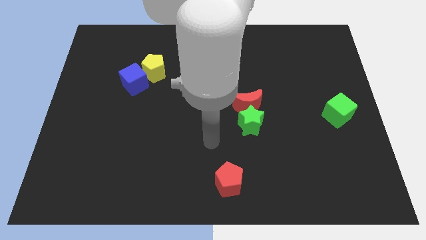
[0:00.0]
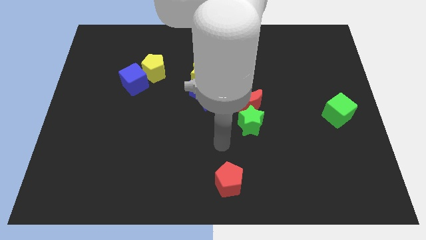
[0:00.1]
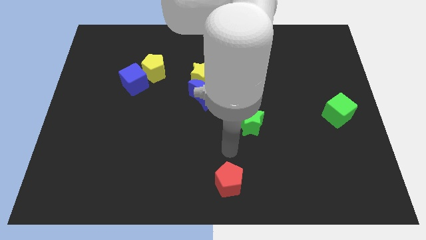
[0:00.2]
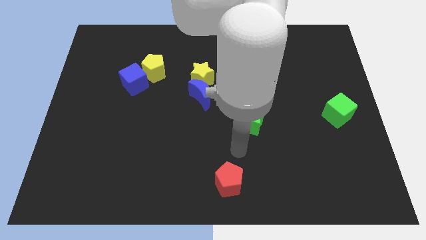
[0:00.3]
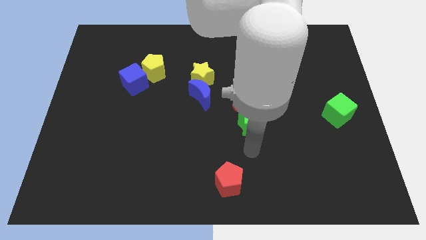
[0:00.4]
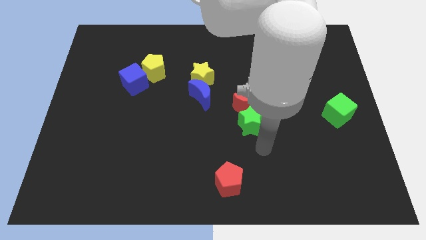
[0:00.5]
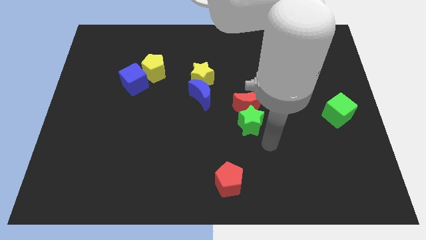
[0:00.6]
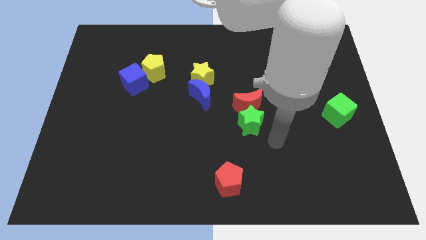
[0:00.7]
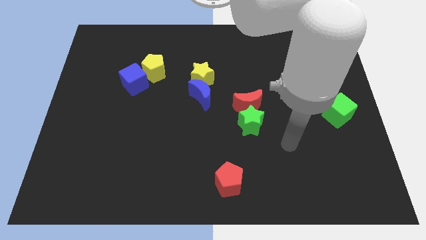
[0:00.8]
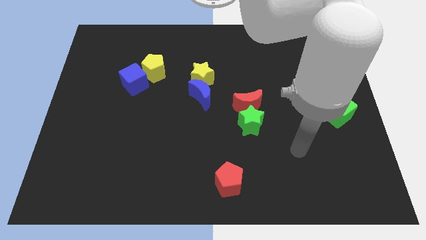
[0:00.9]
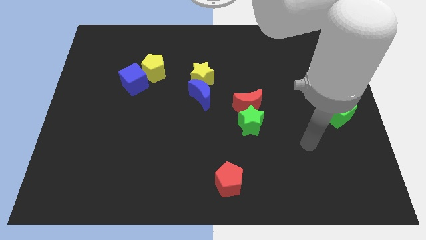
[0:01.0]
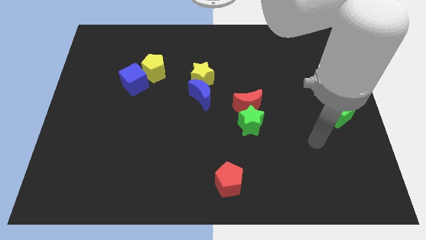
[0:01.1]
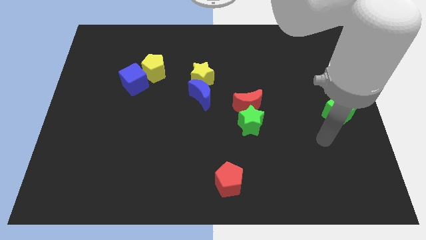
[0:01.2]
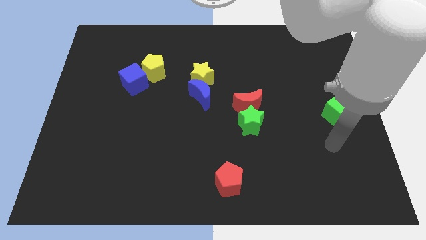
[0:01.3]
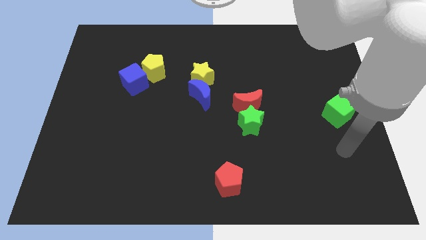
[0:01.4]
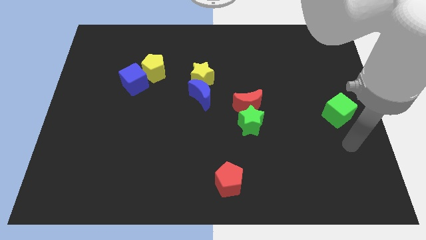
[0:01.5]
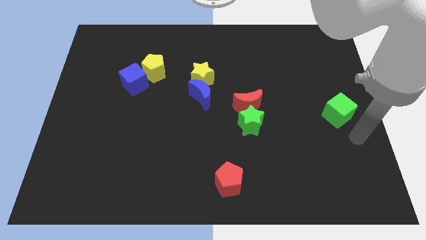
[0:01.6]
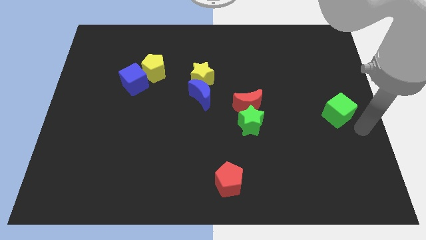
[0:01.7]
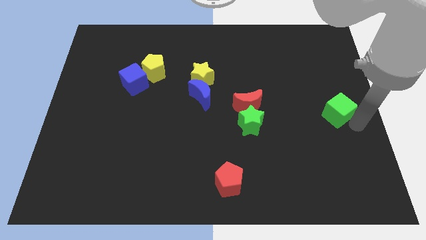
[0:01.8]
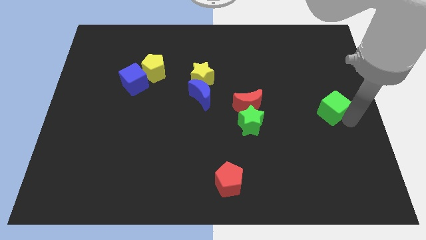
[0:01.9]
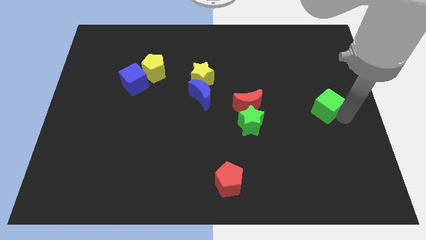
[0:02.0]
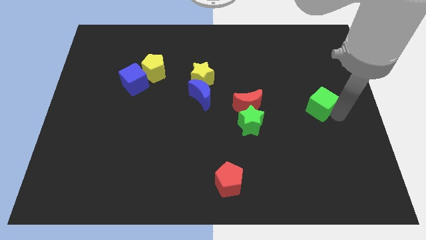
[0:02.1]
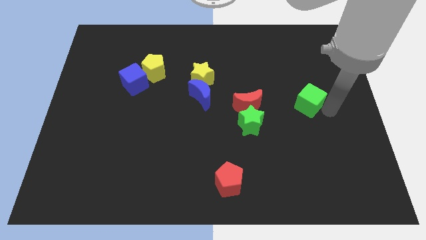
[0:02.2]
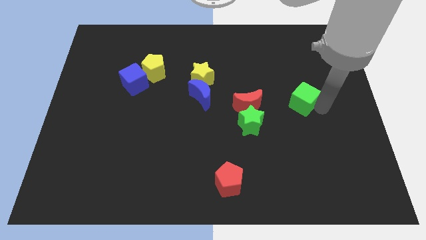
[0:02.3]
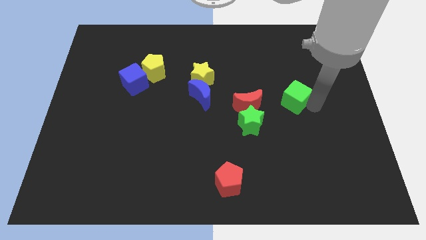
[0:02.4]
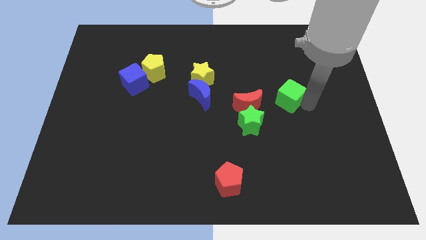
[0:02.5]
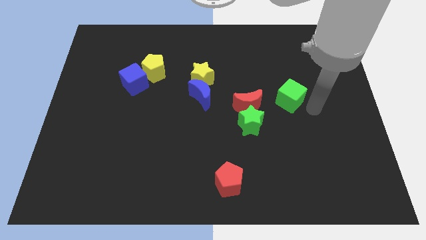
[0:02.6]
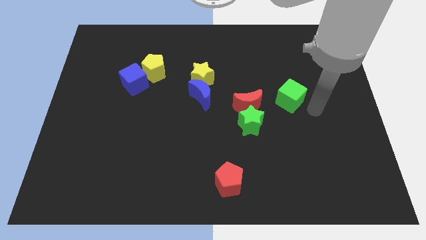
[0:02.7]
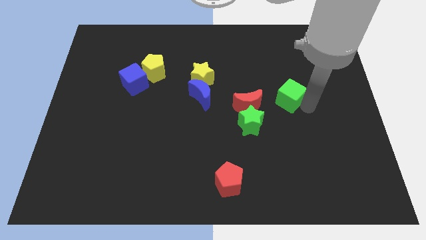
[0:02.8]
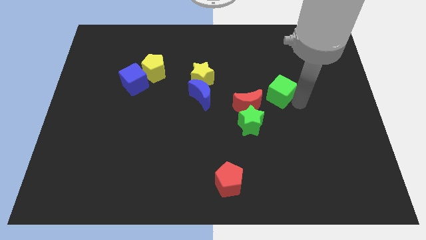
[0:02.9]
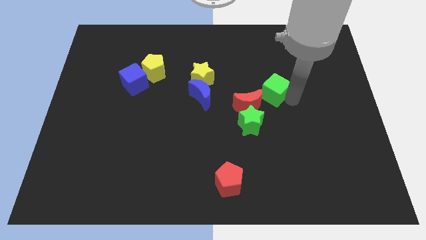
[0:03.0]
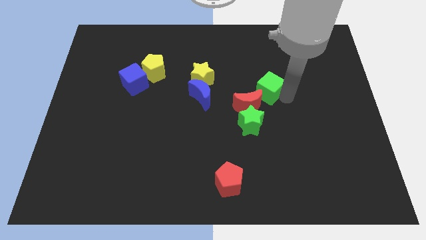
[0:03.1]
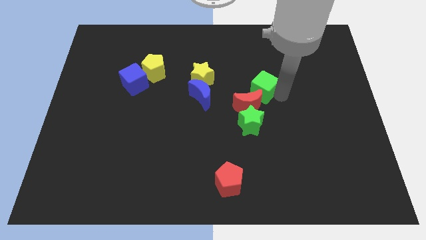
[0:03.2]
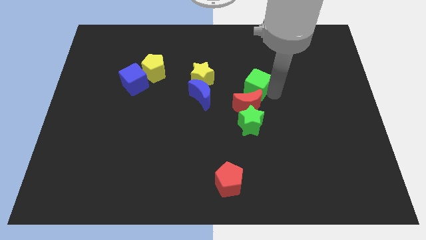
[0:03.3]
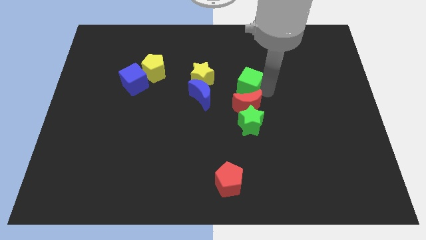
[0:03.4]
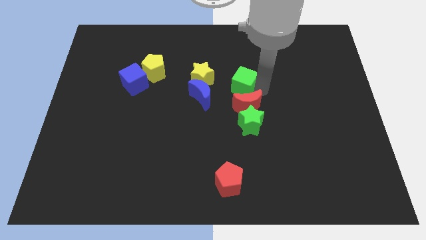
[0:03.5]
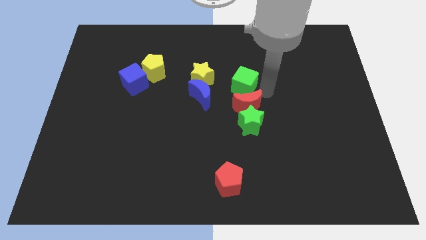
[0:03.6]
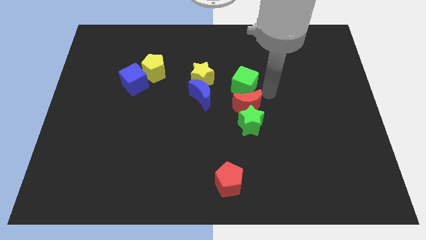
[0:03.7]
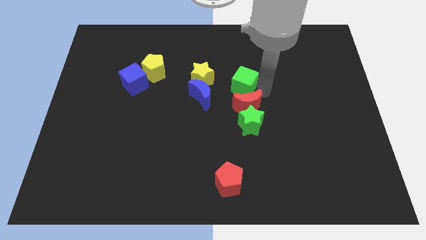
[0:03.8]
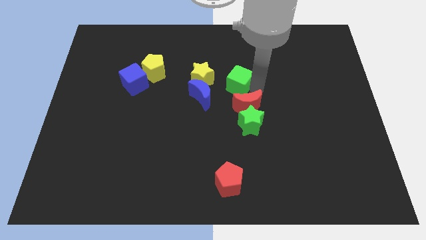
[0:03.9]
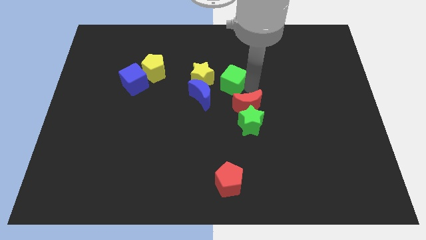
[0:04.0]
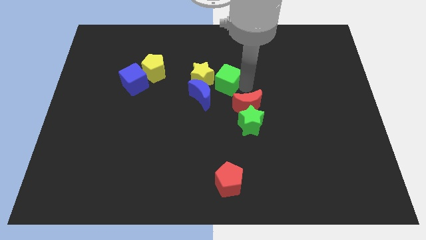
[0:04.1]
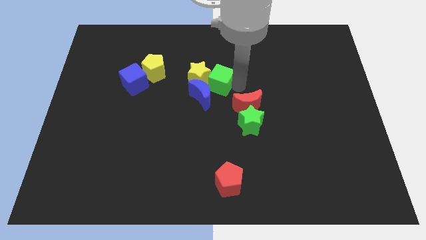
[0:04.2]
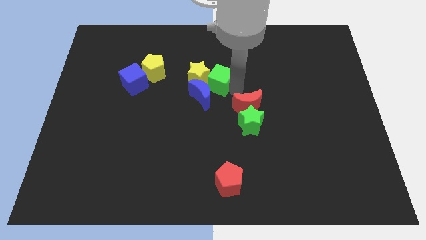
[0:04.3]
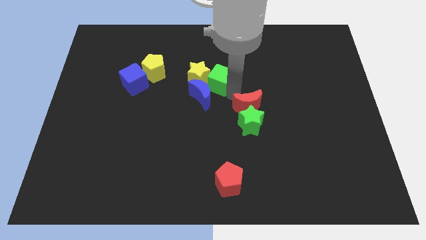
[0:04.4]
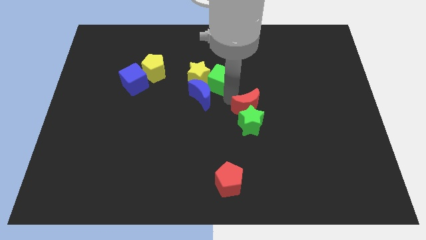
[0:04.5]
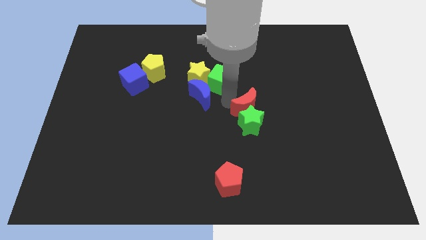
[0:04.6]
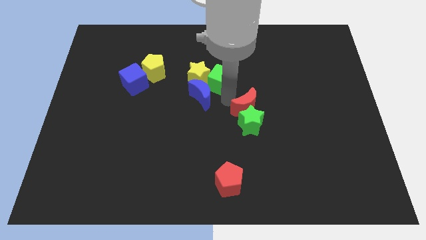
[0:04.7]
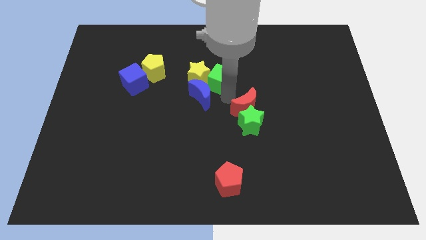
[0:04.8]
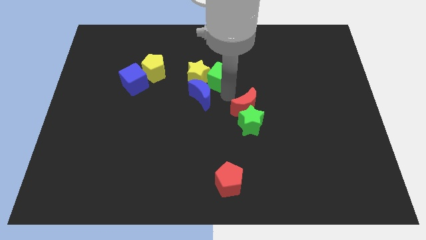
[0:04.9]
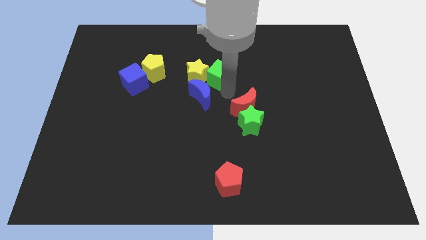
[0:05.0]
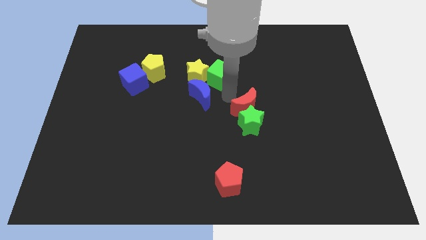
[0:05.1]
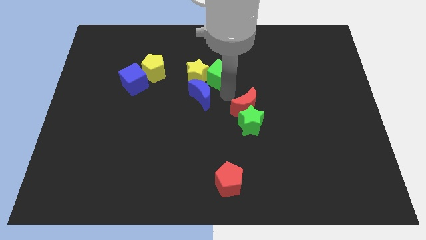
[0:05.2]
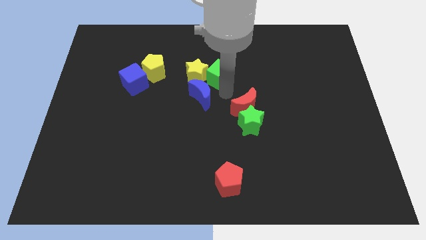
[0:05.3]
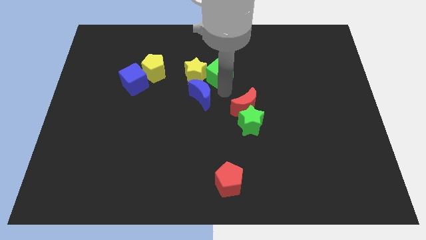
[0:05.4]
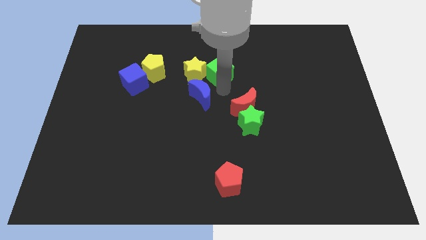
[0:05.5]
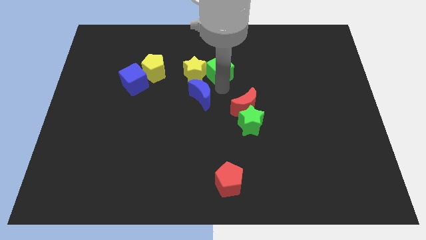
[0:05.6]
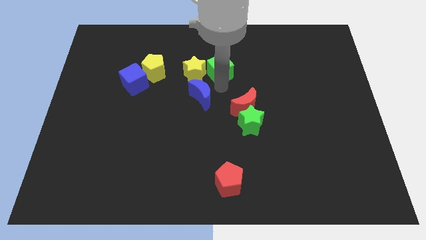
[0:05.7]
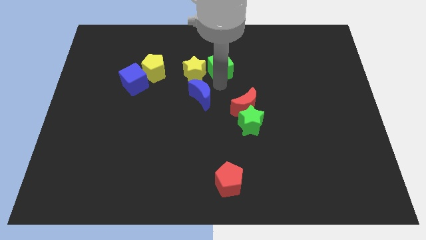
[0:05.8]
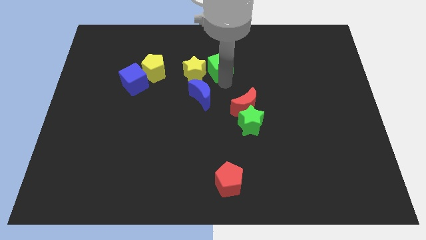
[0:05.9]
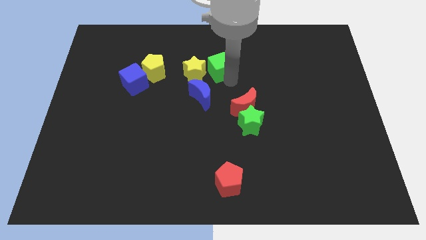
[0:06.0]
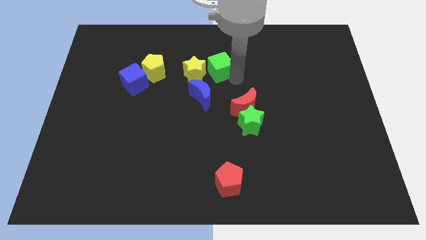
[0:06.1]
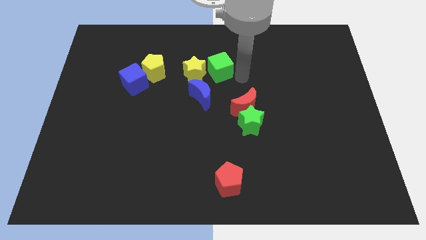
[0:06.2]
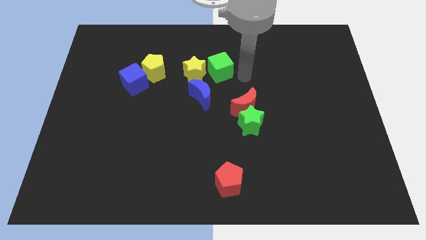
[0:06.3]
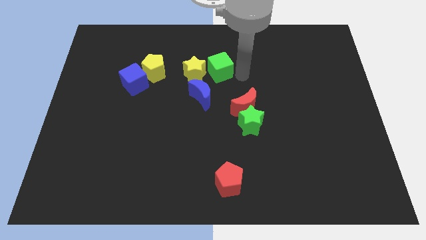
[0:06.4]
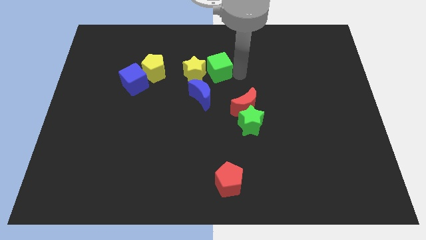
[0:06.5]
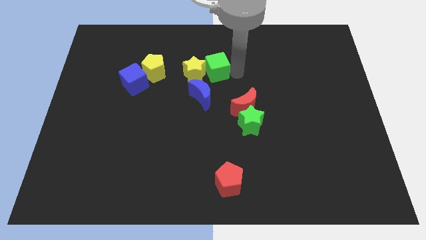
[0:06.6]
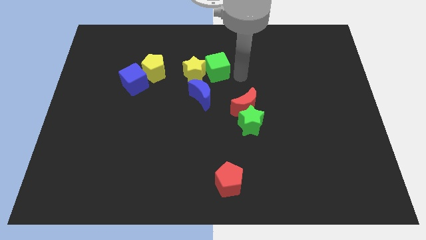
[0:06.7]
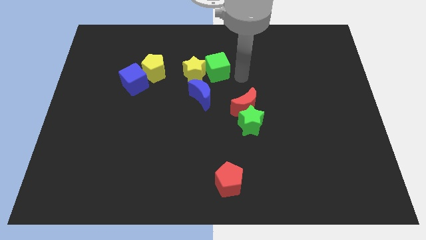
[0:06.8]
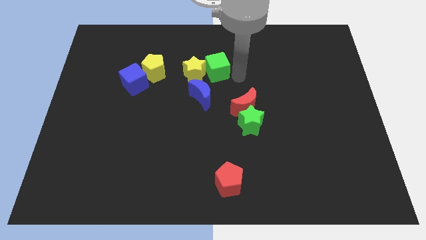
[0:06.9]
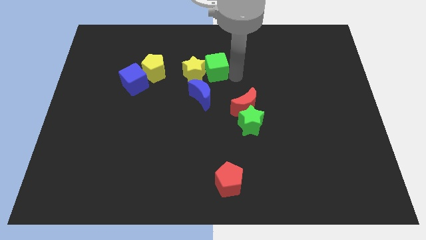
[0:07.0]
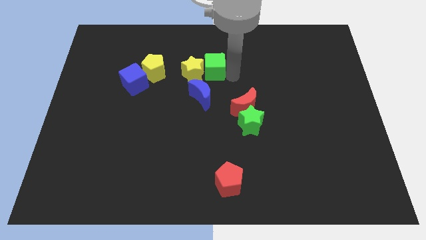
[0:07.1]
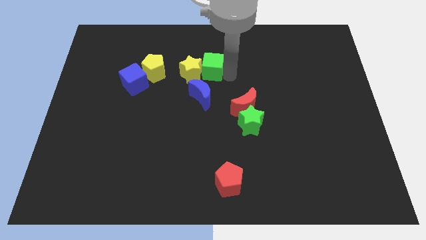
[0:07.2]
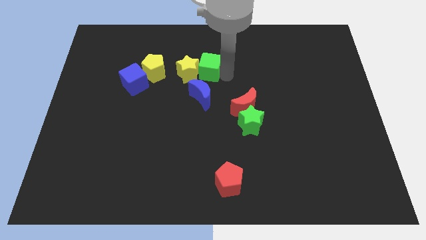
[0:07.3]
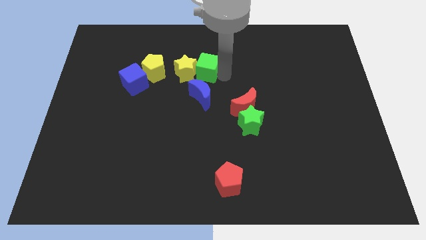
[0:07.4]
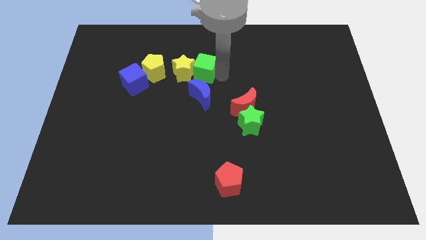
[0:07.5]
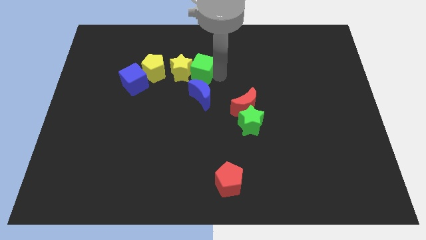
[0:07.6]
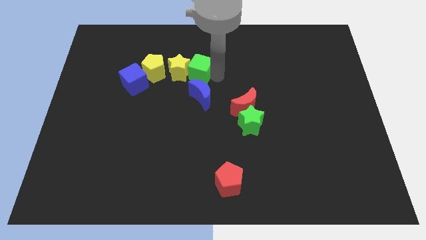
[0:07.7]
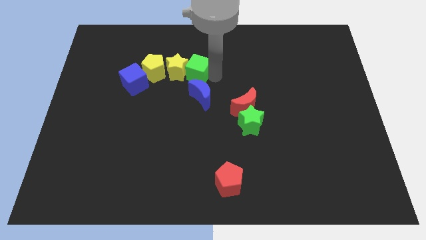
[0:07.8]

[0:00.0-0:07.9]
slide the green cube diagonally up and to the left of the blue moon
